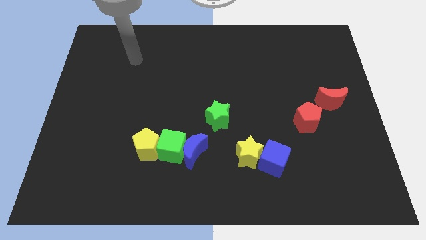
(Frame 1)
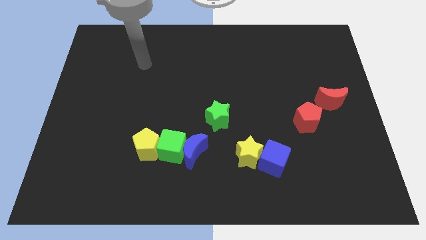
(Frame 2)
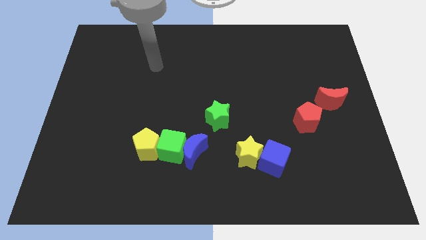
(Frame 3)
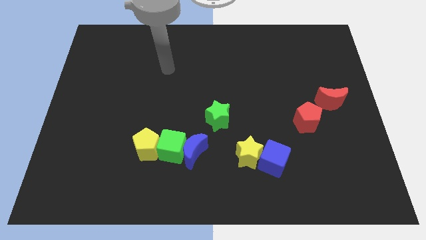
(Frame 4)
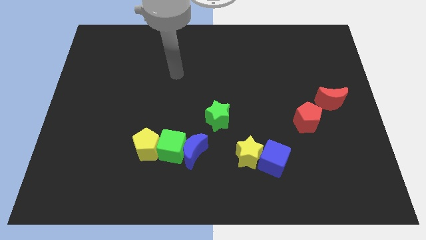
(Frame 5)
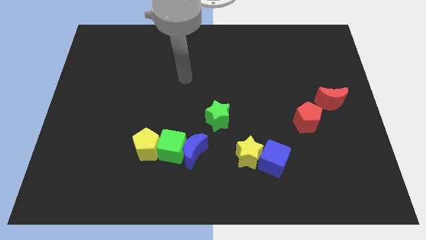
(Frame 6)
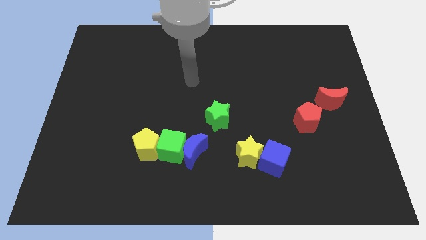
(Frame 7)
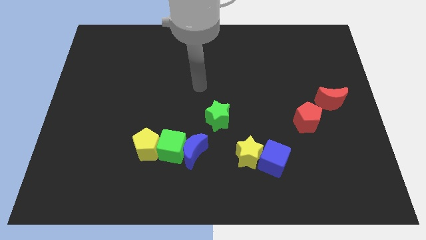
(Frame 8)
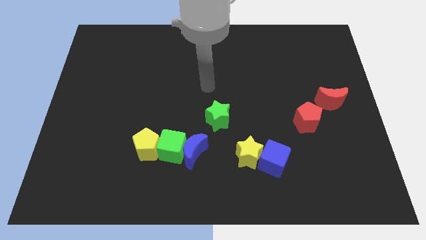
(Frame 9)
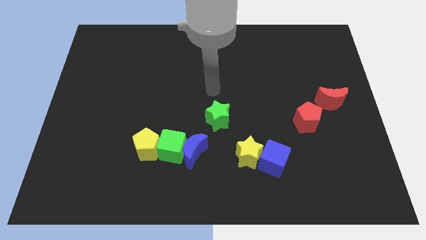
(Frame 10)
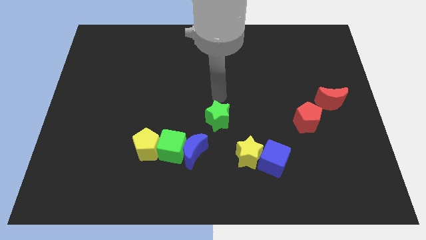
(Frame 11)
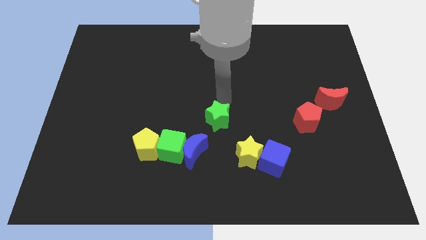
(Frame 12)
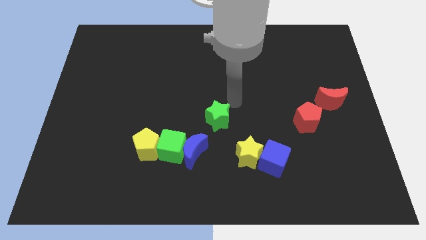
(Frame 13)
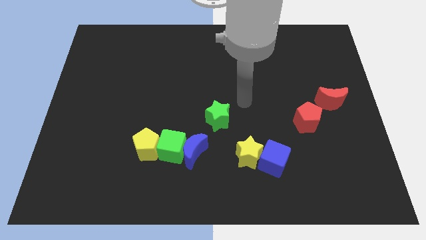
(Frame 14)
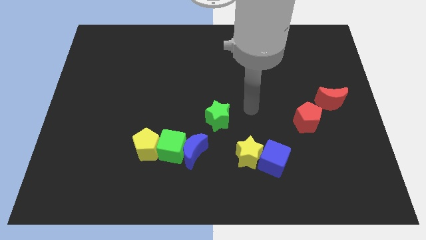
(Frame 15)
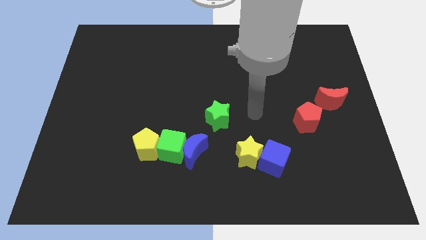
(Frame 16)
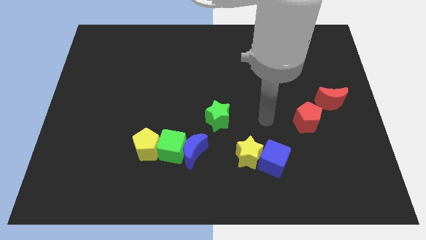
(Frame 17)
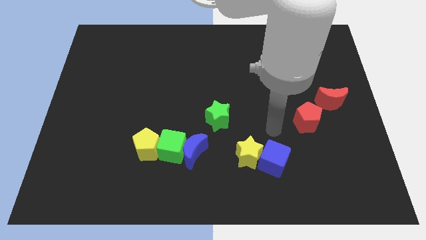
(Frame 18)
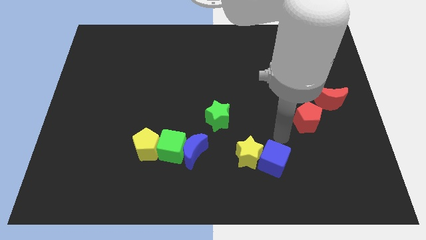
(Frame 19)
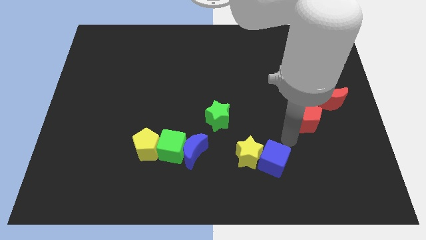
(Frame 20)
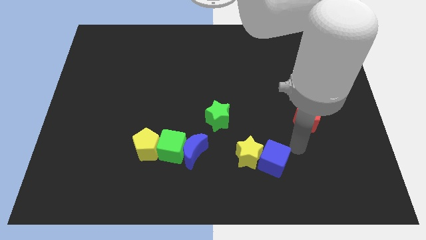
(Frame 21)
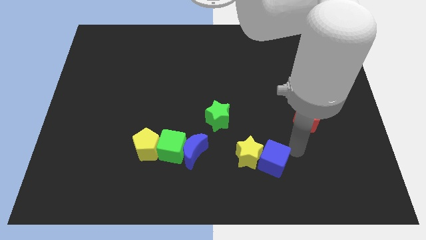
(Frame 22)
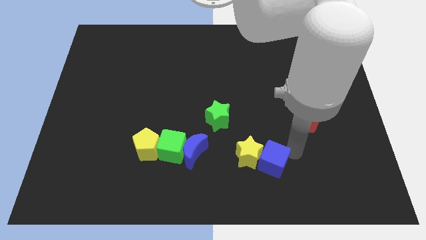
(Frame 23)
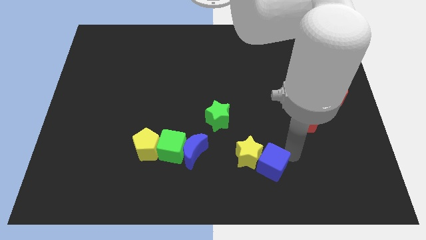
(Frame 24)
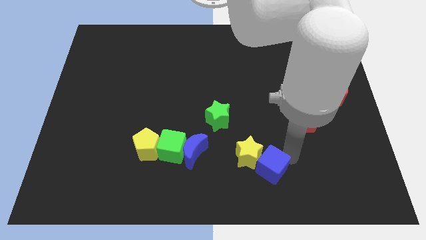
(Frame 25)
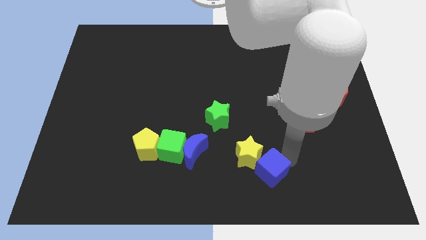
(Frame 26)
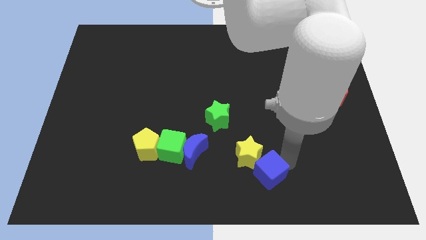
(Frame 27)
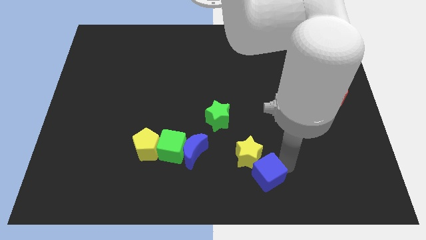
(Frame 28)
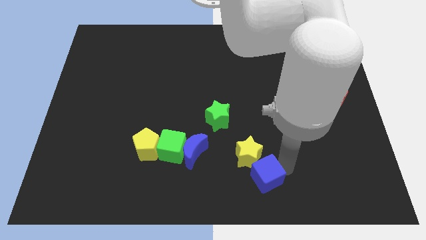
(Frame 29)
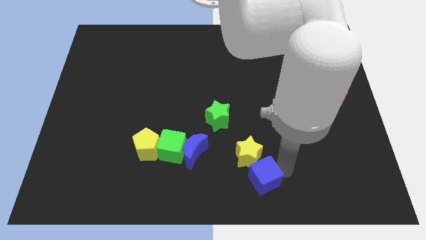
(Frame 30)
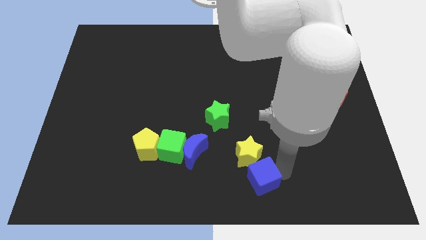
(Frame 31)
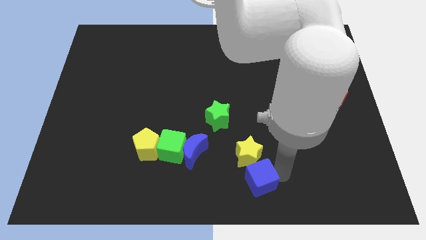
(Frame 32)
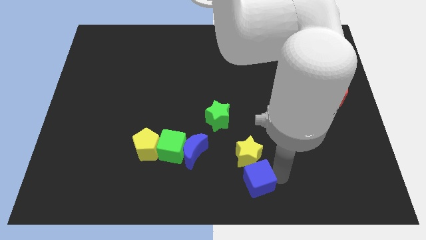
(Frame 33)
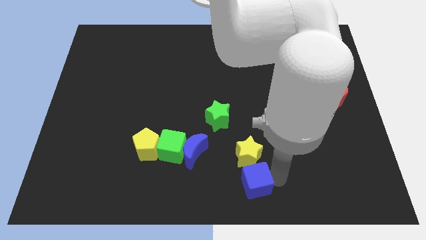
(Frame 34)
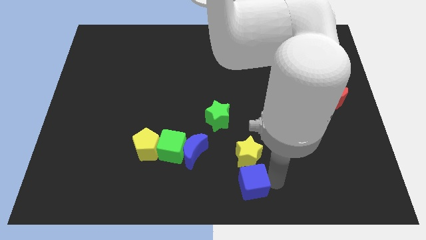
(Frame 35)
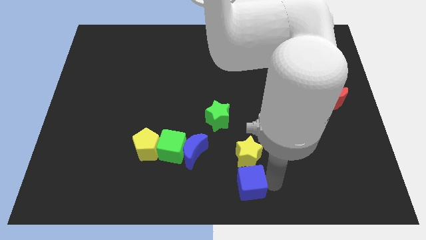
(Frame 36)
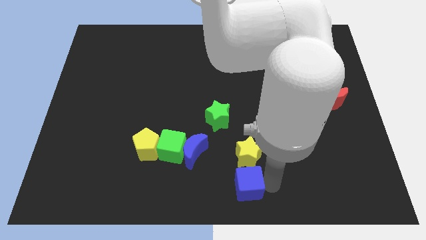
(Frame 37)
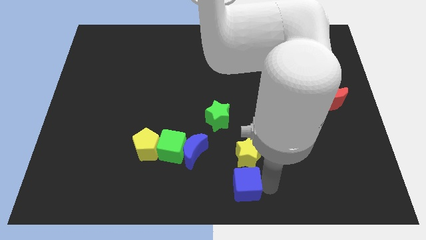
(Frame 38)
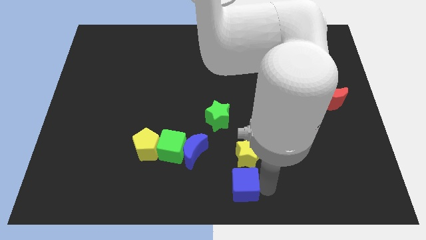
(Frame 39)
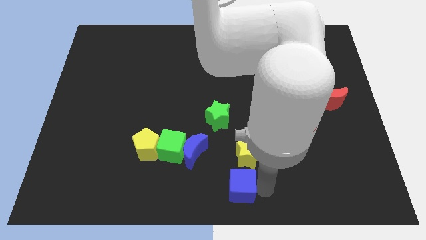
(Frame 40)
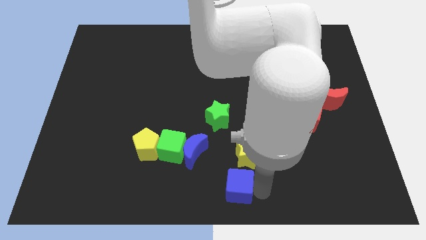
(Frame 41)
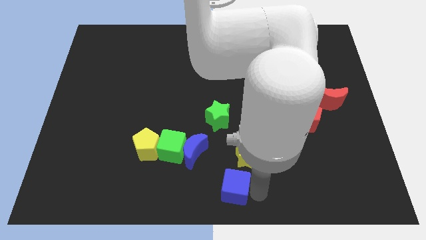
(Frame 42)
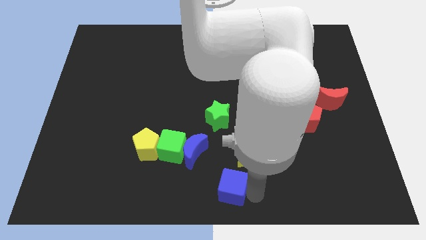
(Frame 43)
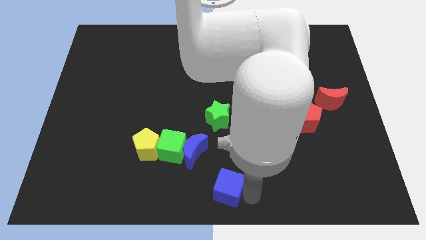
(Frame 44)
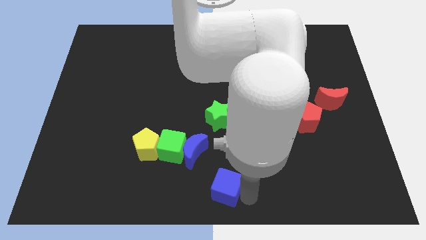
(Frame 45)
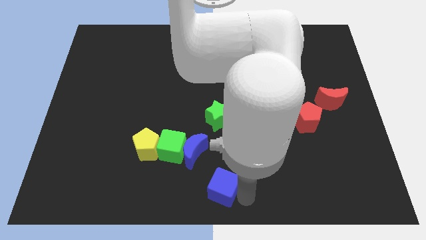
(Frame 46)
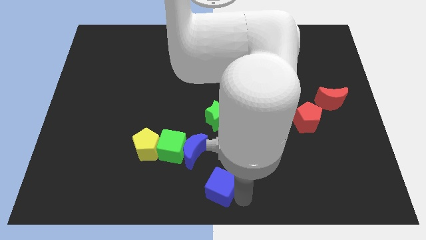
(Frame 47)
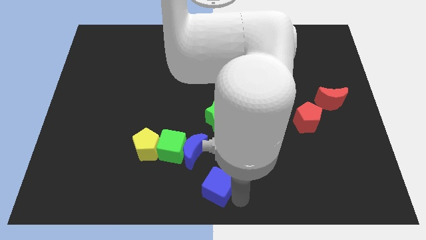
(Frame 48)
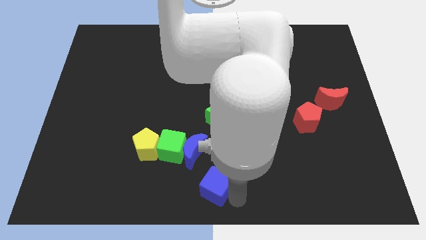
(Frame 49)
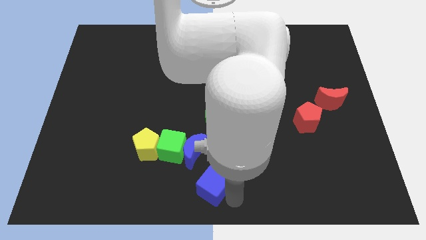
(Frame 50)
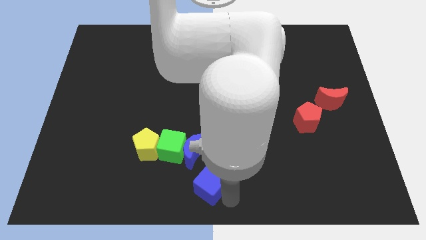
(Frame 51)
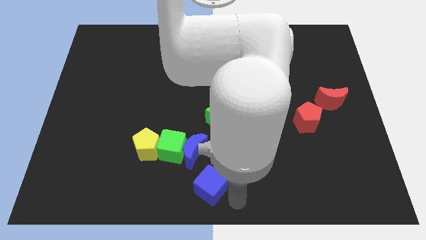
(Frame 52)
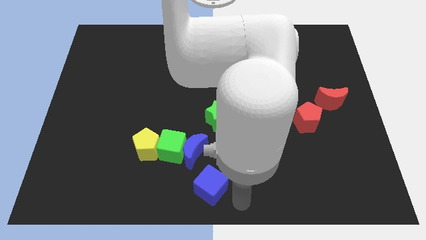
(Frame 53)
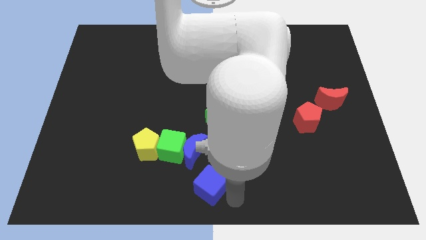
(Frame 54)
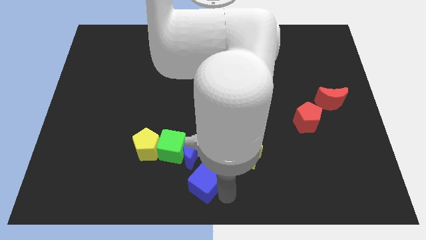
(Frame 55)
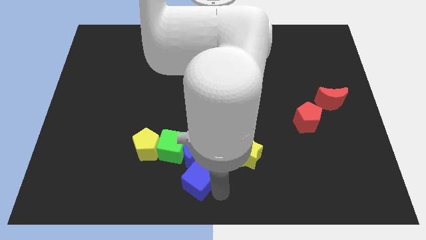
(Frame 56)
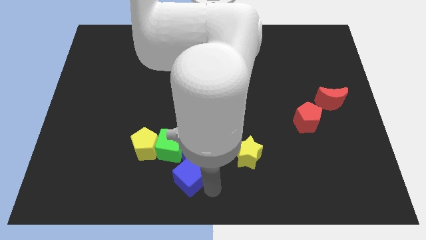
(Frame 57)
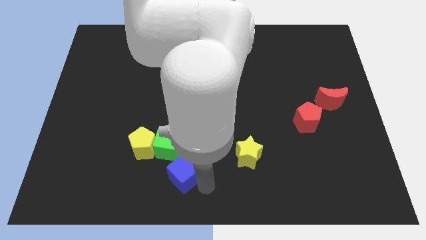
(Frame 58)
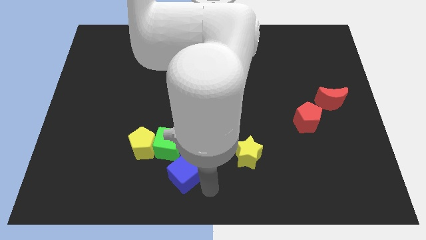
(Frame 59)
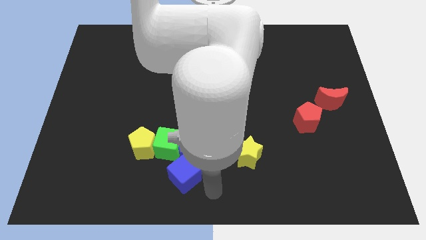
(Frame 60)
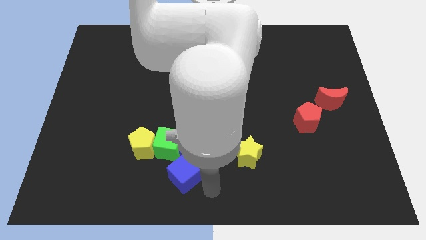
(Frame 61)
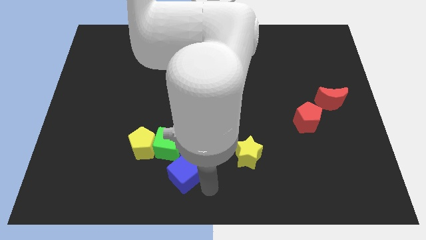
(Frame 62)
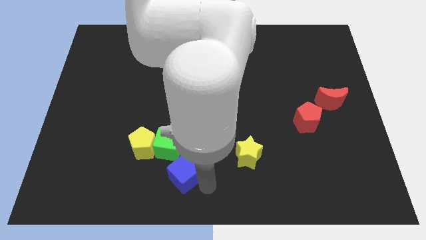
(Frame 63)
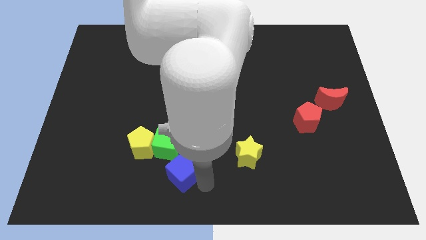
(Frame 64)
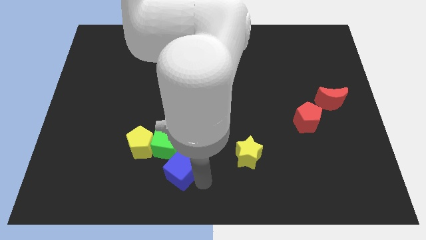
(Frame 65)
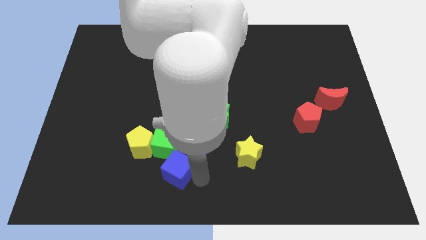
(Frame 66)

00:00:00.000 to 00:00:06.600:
move the blue cube to the left

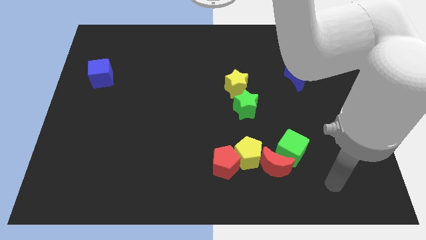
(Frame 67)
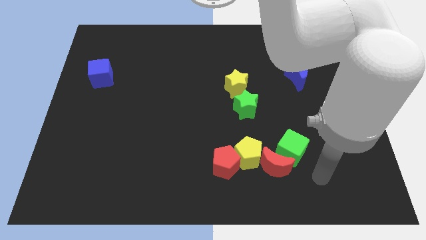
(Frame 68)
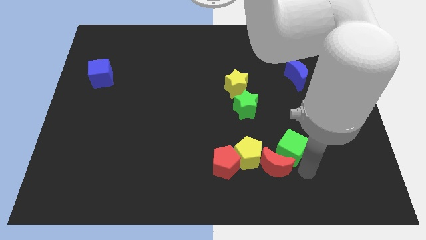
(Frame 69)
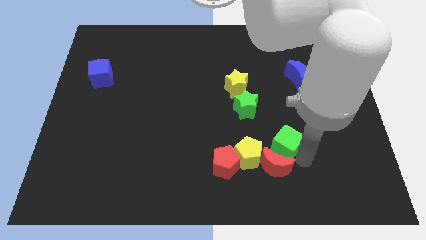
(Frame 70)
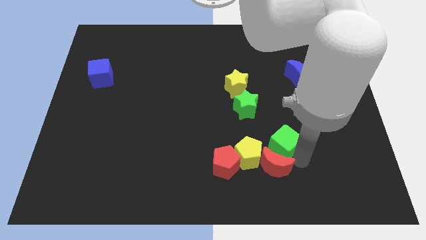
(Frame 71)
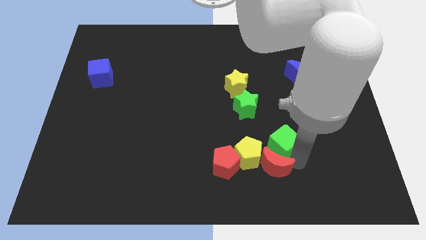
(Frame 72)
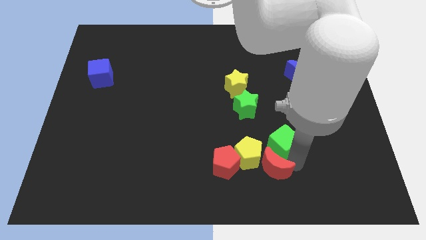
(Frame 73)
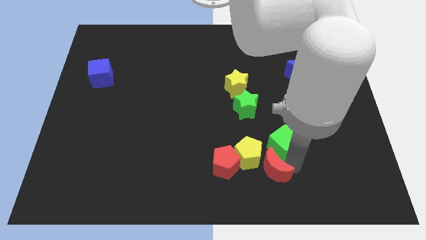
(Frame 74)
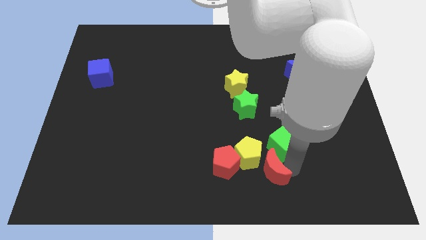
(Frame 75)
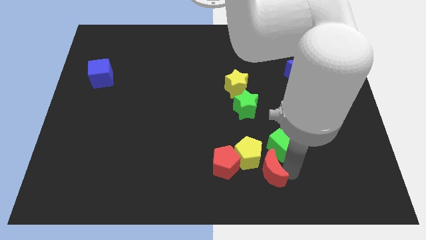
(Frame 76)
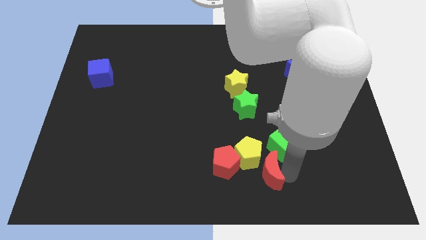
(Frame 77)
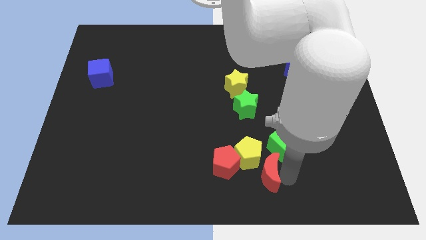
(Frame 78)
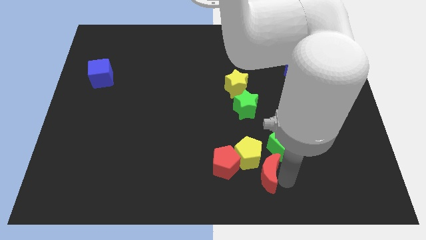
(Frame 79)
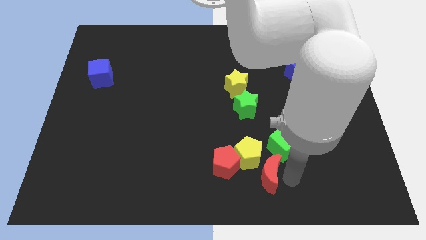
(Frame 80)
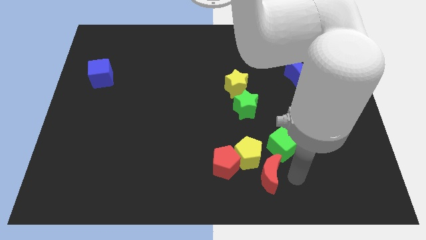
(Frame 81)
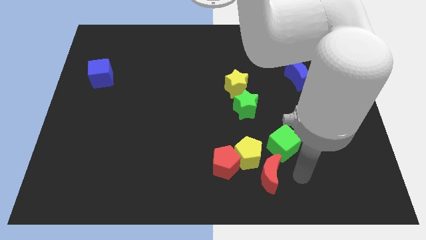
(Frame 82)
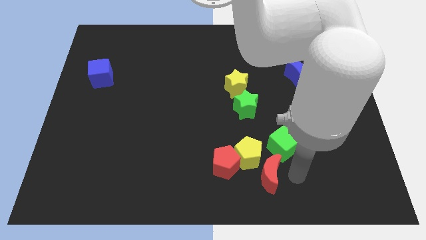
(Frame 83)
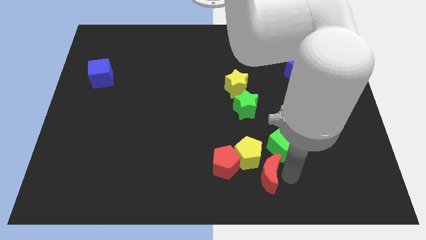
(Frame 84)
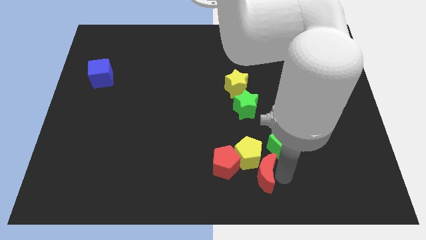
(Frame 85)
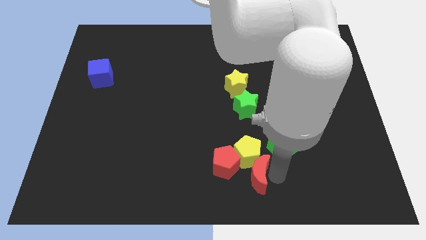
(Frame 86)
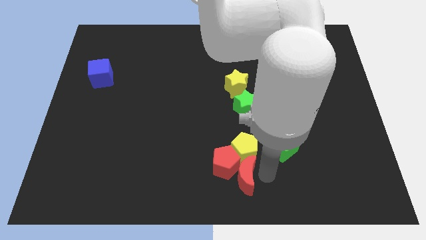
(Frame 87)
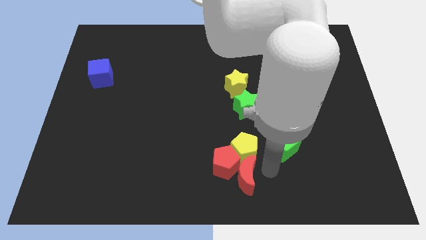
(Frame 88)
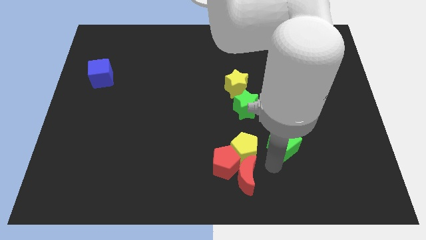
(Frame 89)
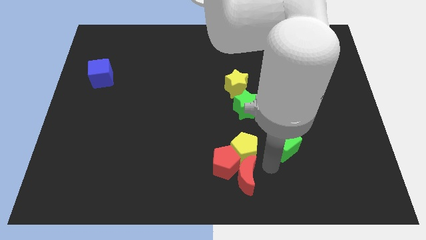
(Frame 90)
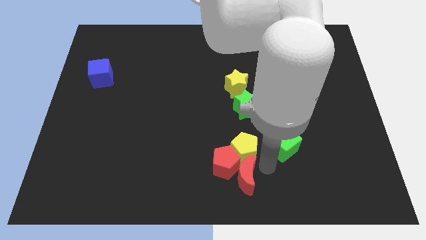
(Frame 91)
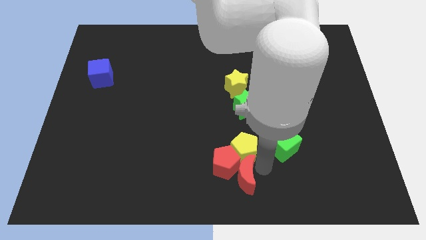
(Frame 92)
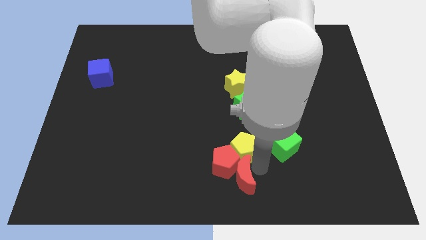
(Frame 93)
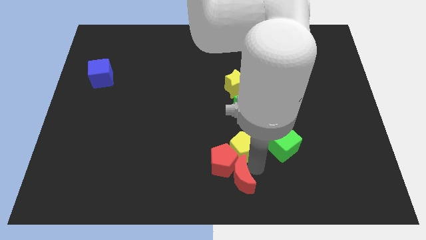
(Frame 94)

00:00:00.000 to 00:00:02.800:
slightly slide the red moon to the left
